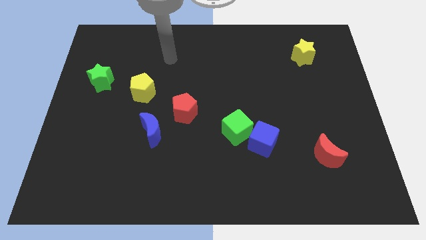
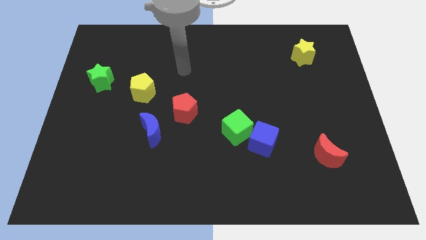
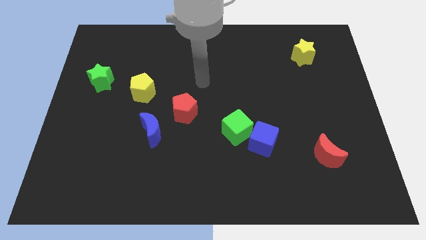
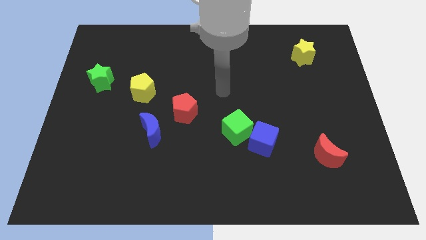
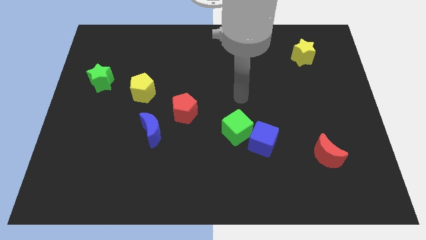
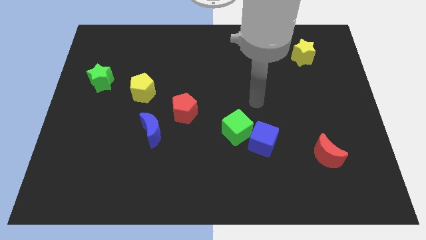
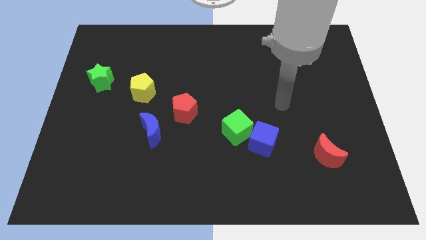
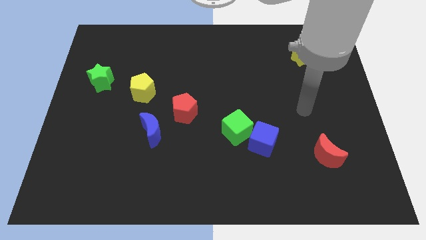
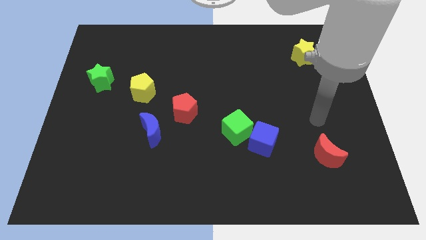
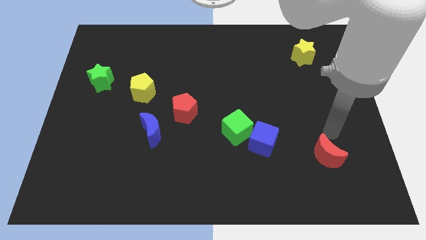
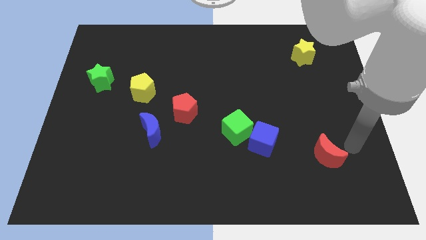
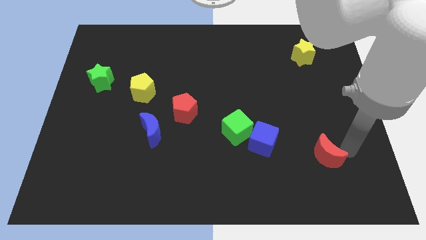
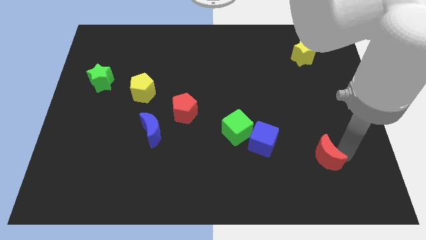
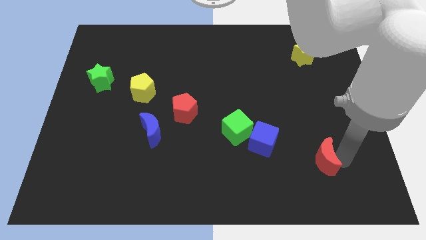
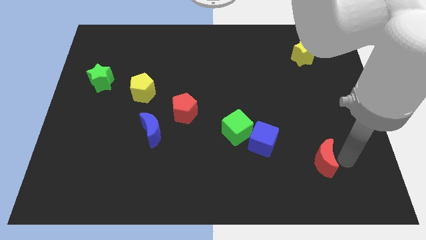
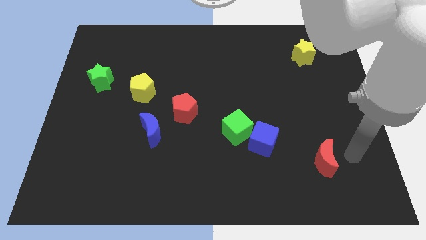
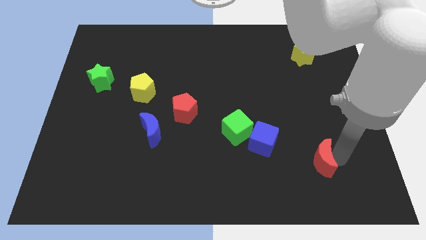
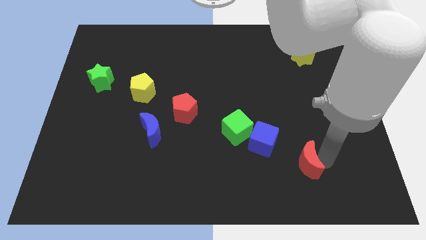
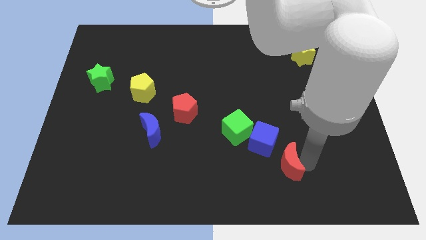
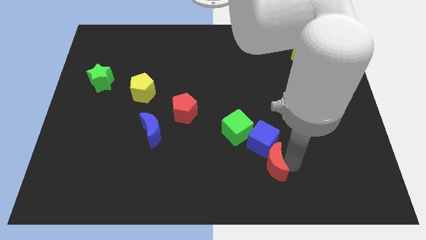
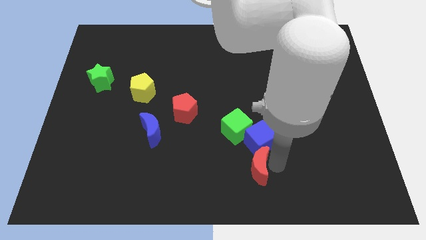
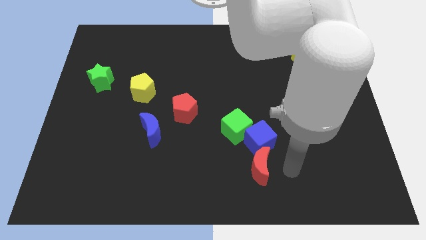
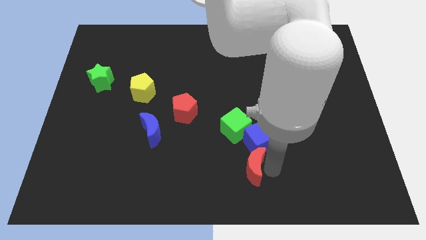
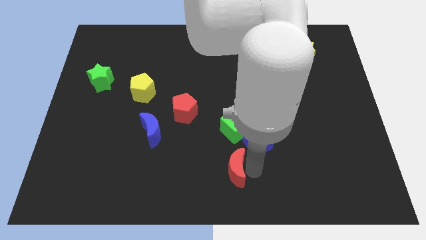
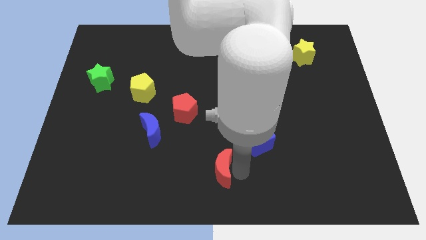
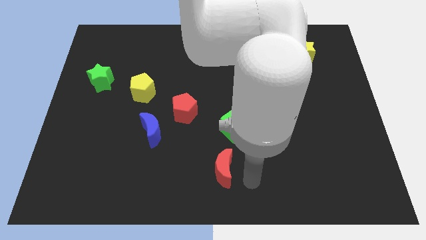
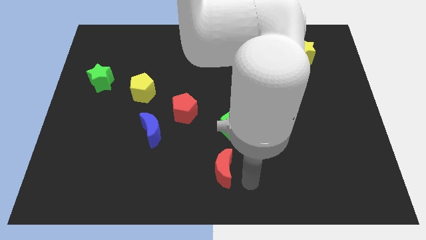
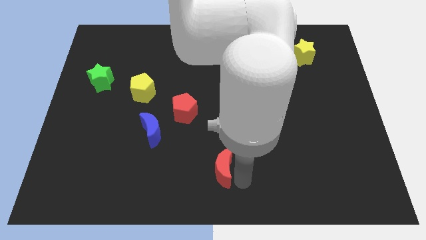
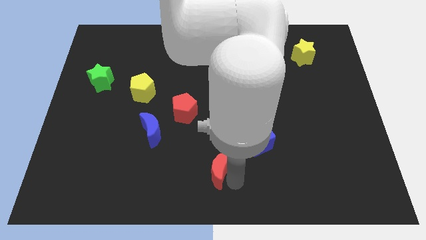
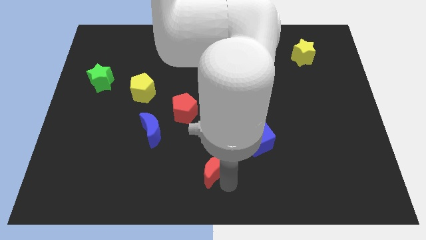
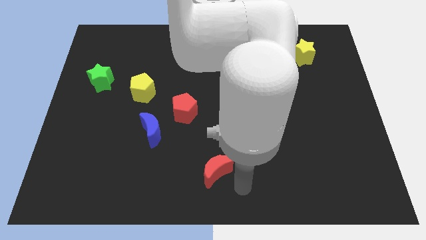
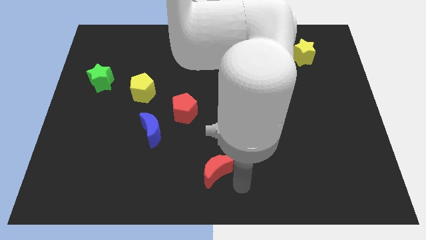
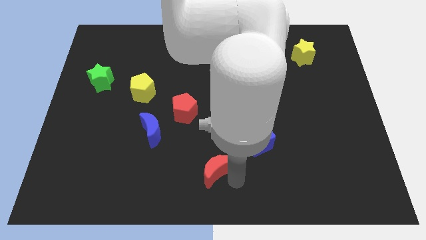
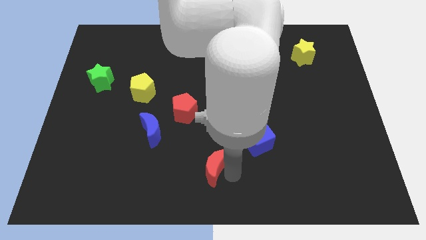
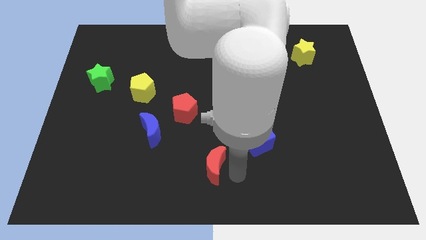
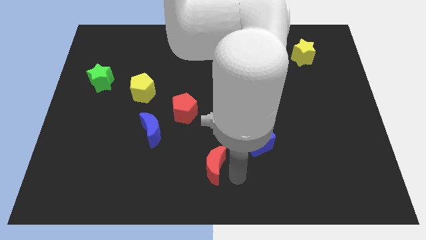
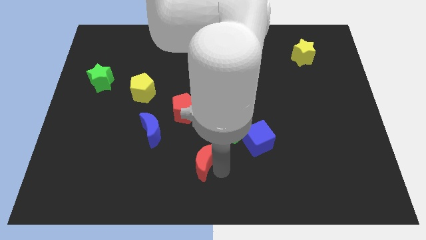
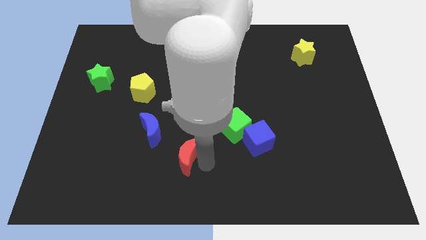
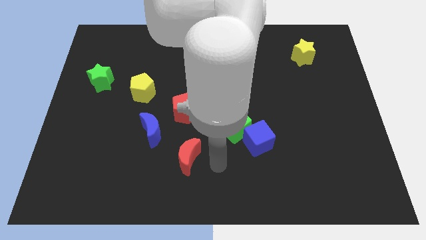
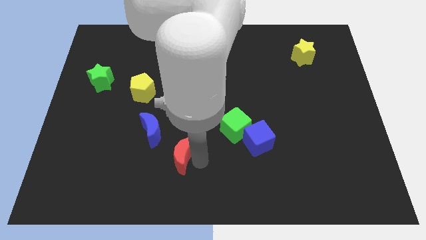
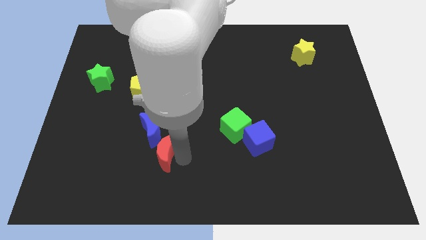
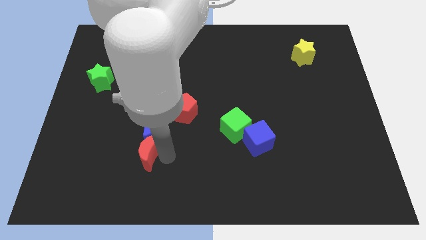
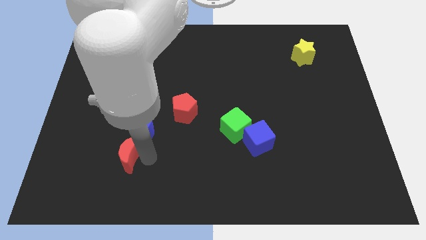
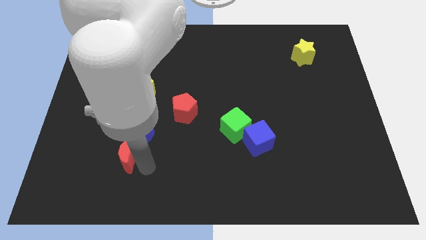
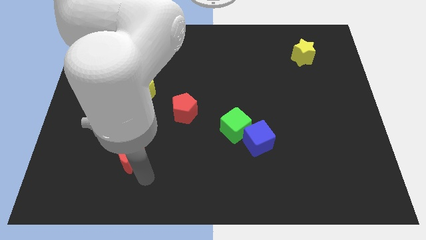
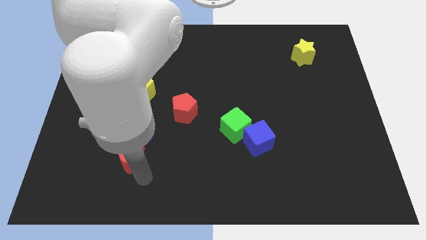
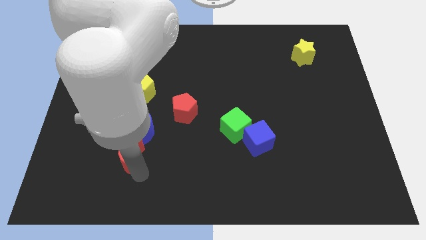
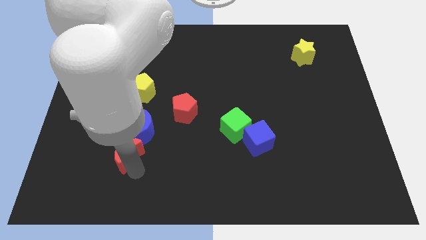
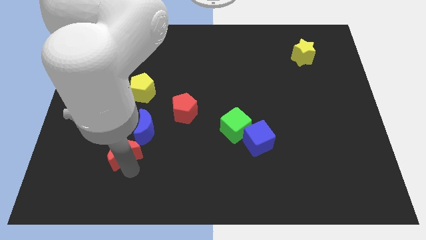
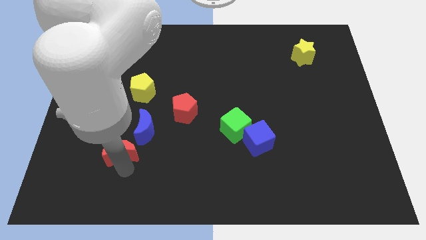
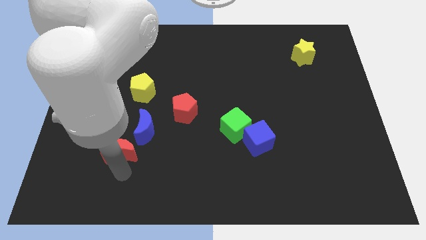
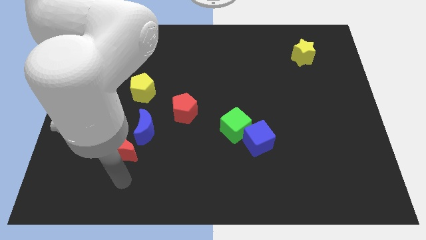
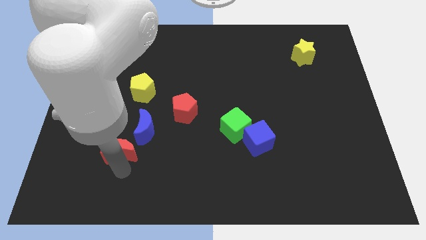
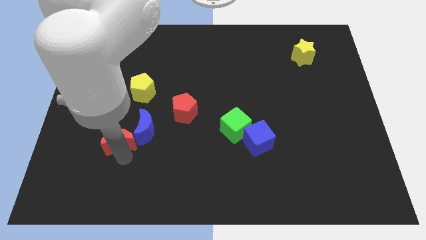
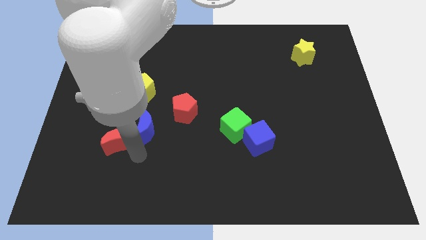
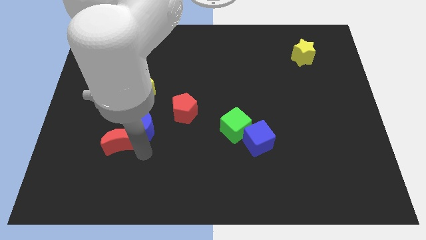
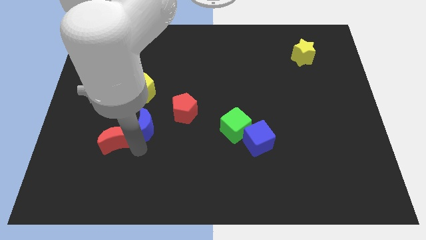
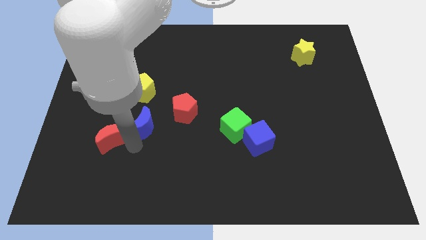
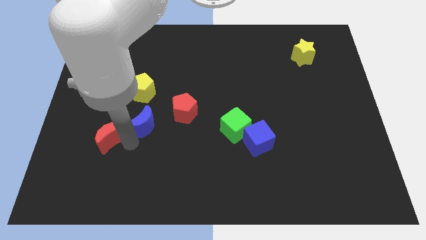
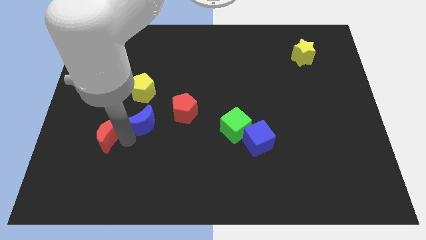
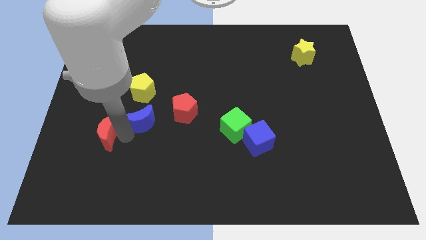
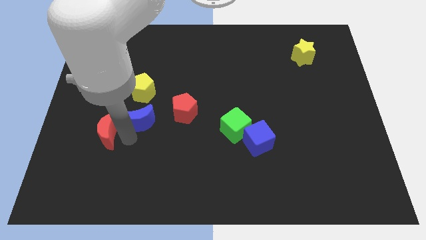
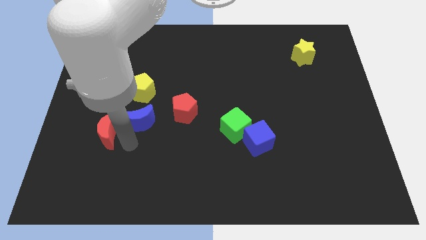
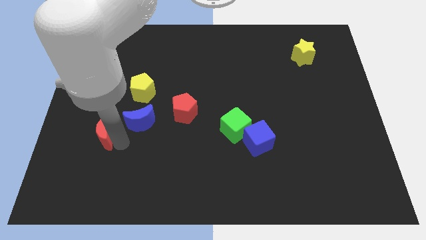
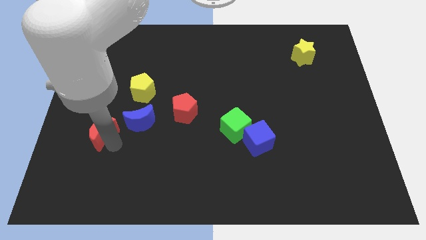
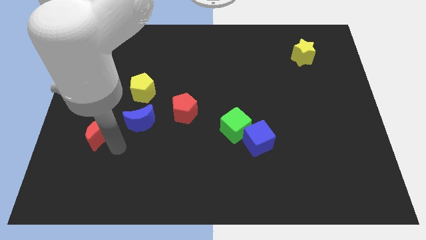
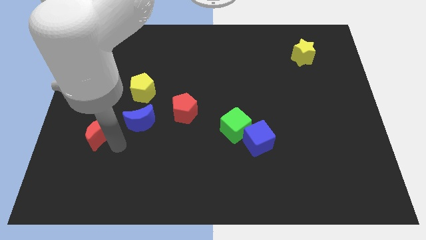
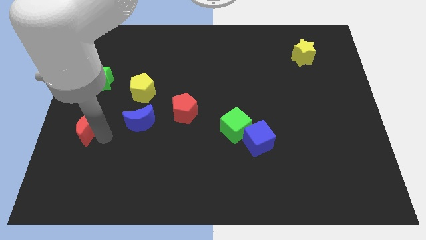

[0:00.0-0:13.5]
move the red moon to the left side
